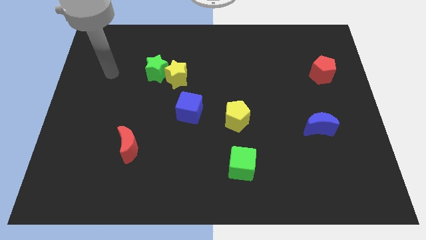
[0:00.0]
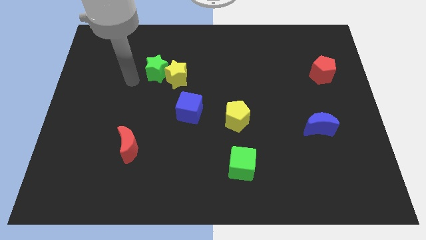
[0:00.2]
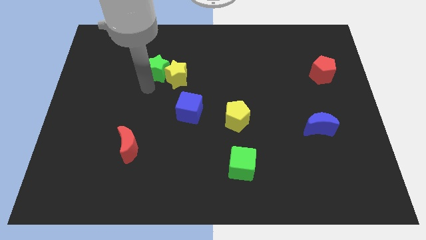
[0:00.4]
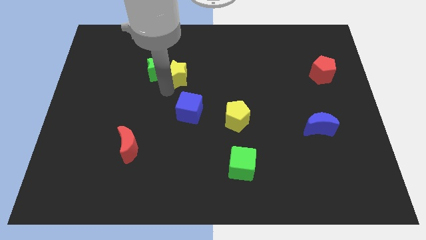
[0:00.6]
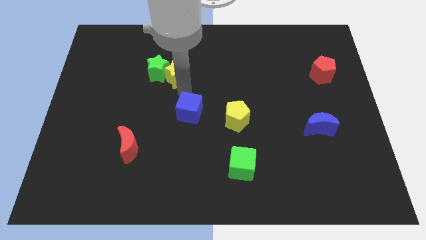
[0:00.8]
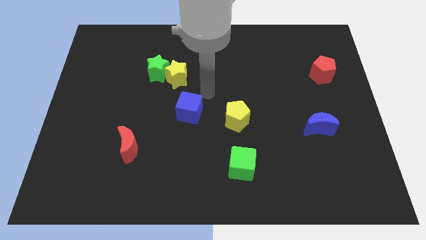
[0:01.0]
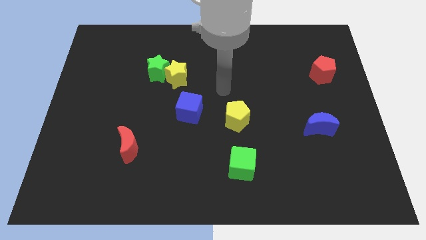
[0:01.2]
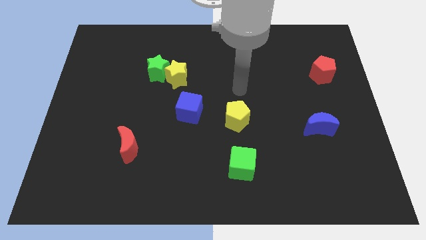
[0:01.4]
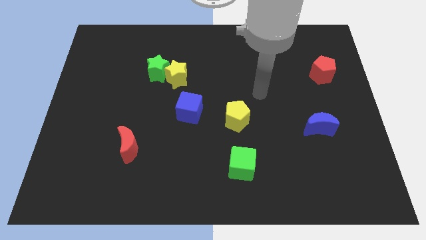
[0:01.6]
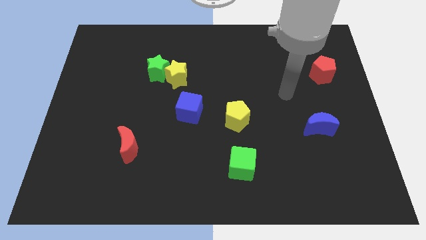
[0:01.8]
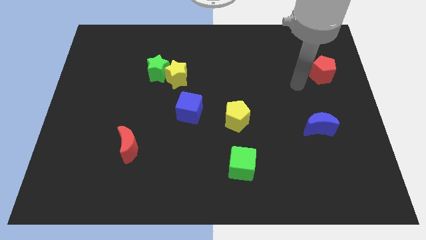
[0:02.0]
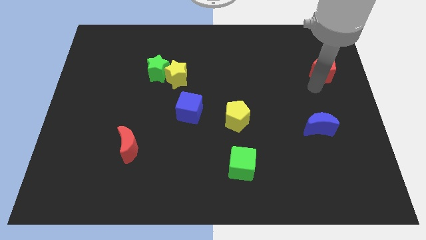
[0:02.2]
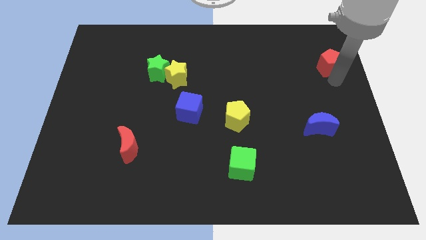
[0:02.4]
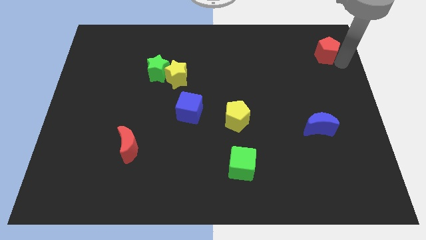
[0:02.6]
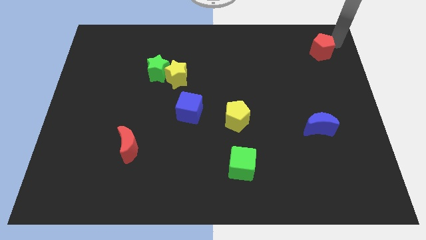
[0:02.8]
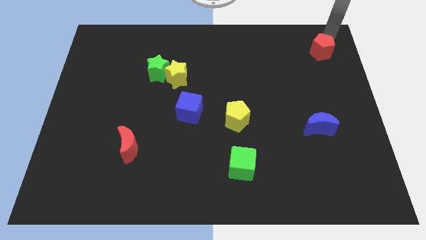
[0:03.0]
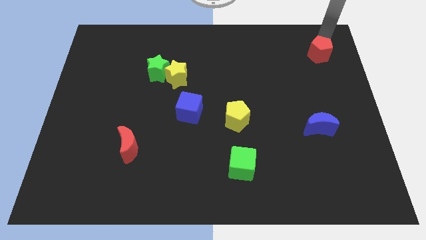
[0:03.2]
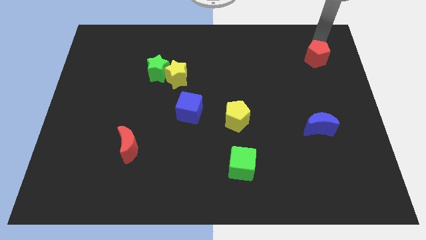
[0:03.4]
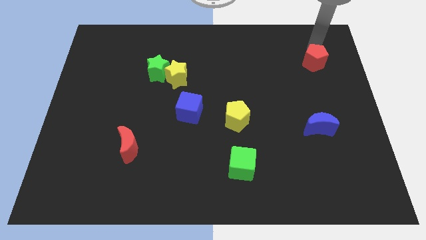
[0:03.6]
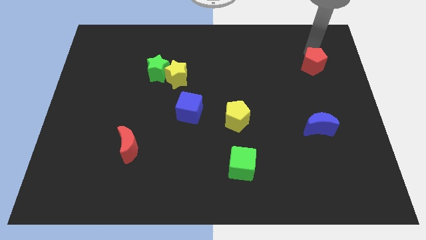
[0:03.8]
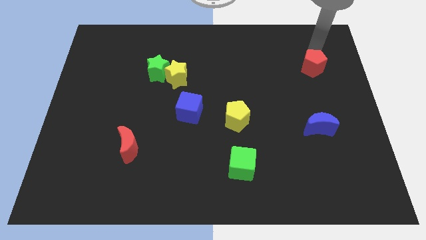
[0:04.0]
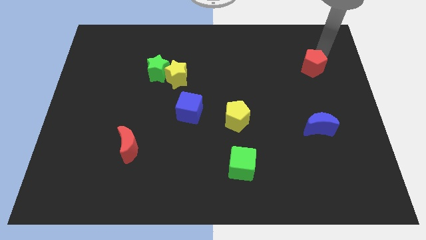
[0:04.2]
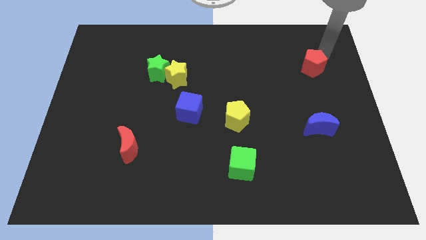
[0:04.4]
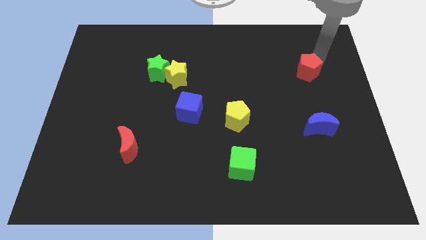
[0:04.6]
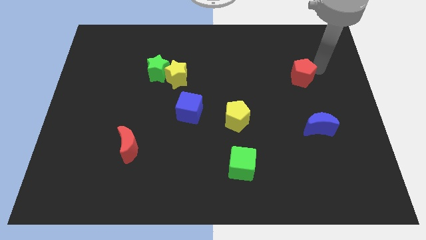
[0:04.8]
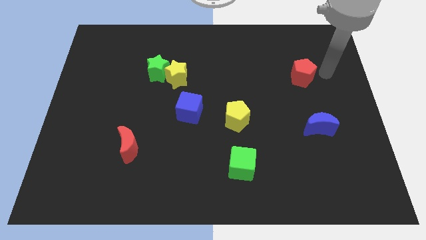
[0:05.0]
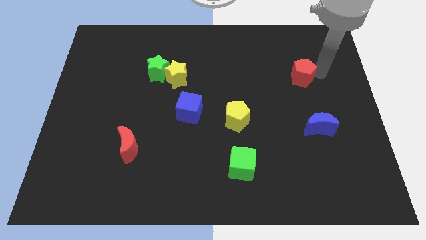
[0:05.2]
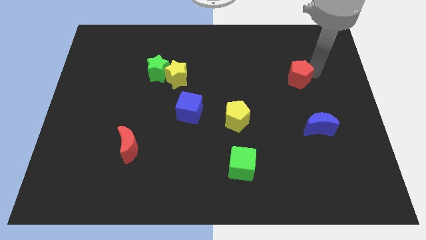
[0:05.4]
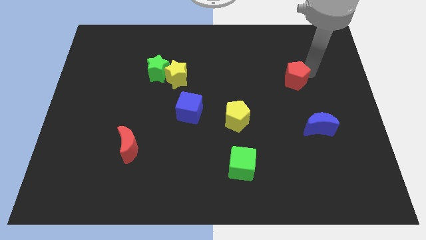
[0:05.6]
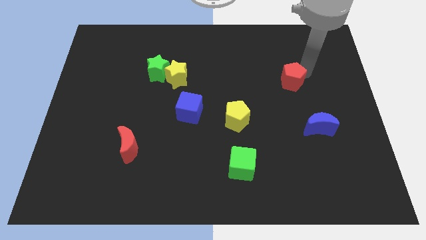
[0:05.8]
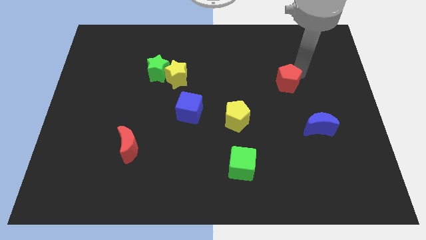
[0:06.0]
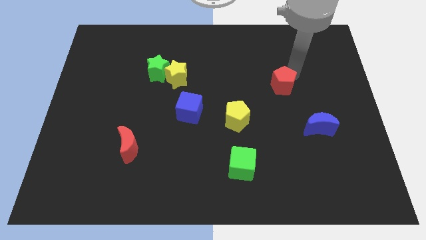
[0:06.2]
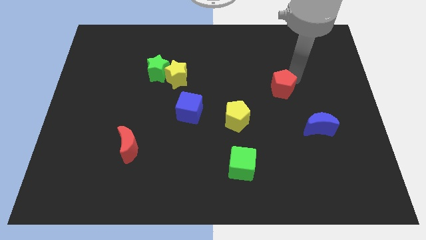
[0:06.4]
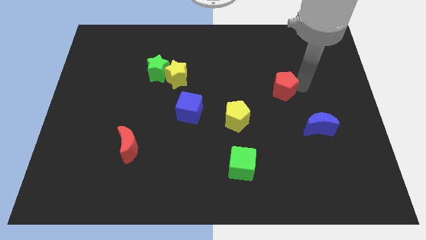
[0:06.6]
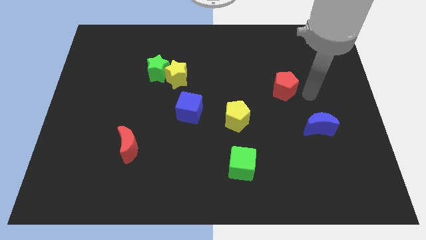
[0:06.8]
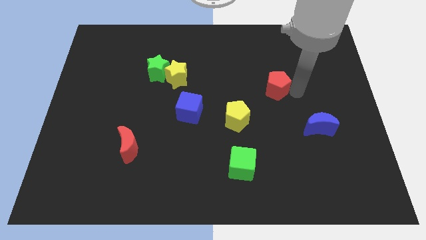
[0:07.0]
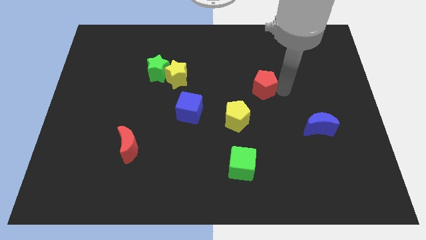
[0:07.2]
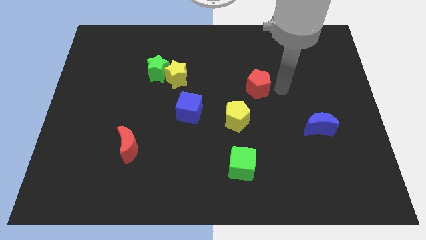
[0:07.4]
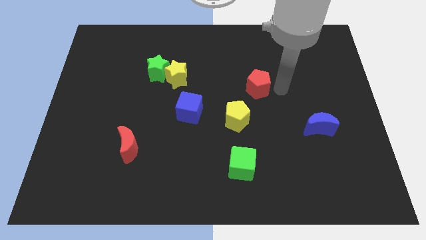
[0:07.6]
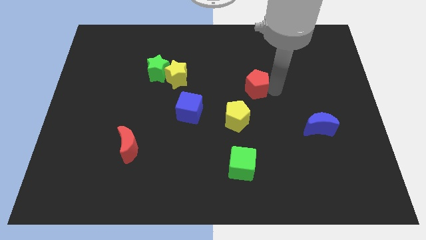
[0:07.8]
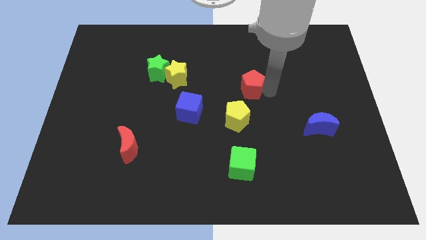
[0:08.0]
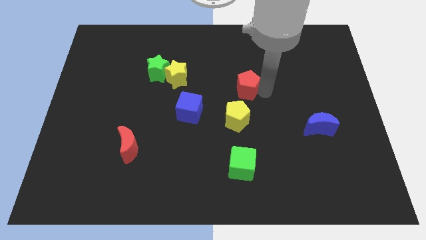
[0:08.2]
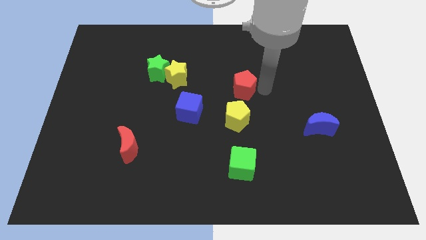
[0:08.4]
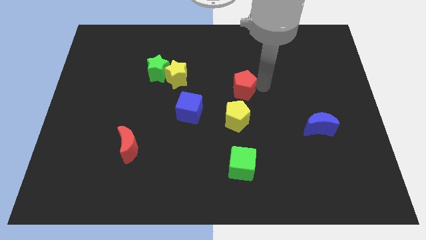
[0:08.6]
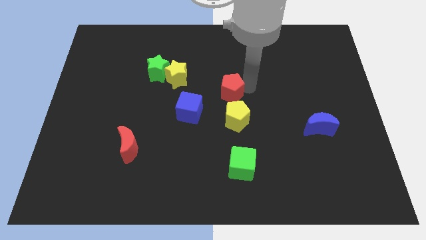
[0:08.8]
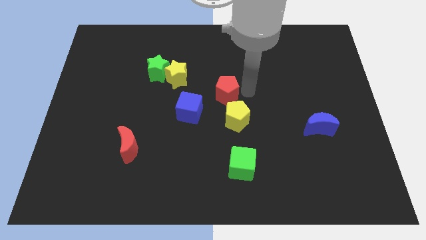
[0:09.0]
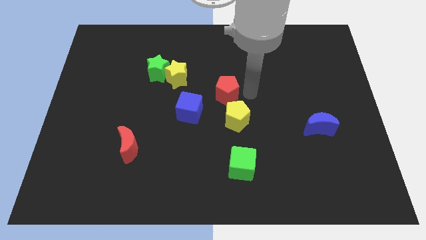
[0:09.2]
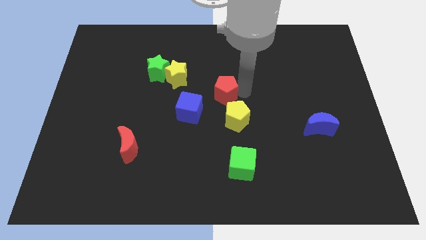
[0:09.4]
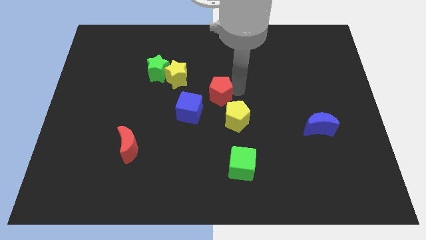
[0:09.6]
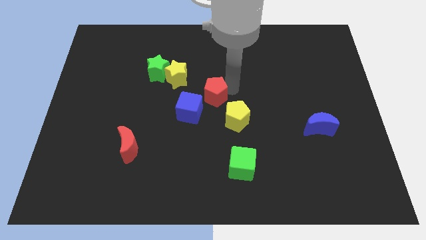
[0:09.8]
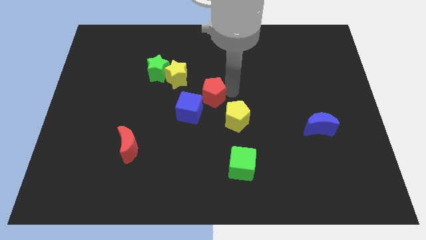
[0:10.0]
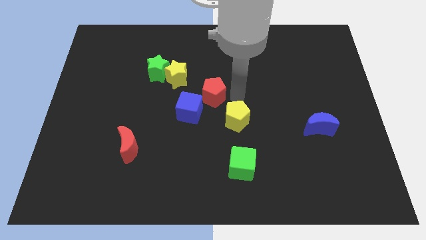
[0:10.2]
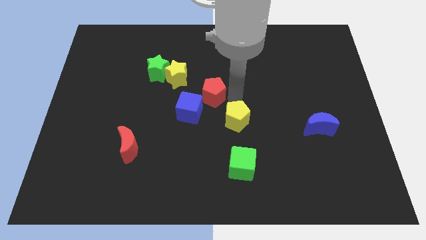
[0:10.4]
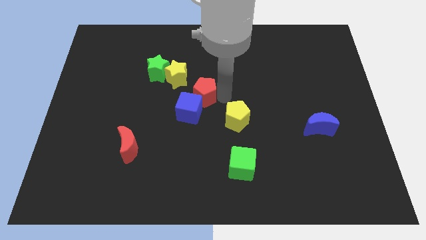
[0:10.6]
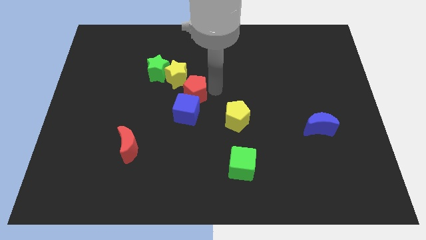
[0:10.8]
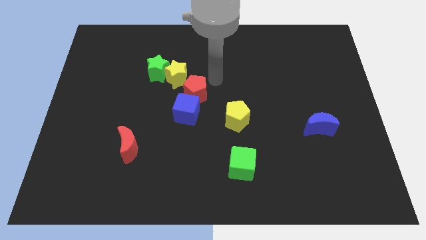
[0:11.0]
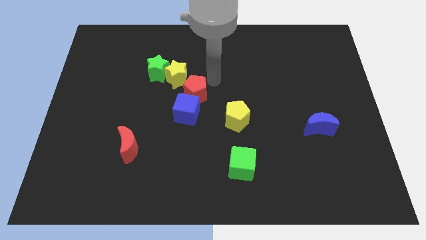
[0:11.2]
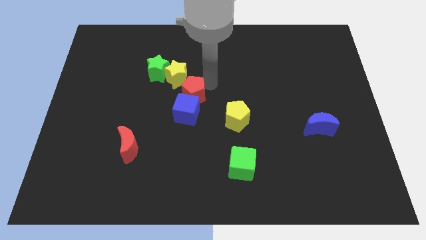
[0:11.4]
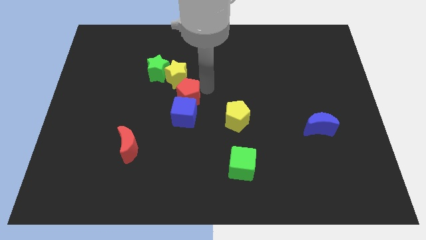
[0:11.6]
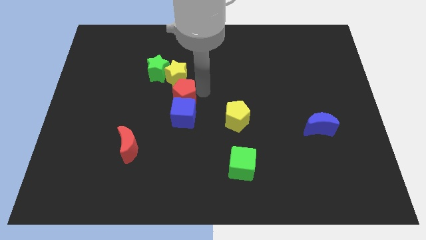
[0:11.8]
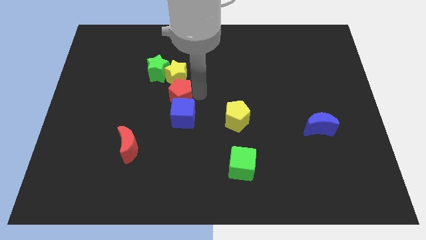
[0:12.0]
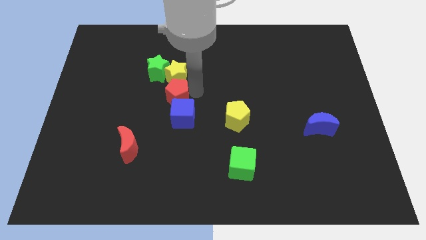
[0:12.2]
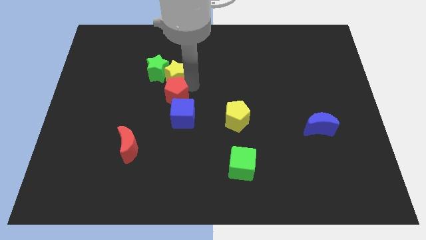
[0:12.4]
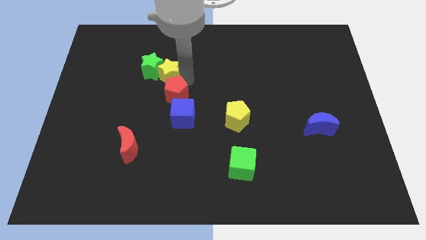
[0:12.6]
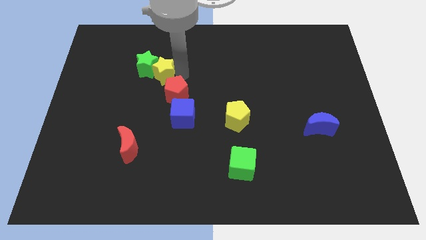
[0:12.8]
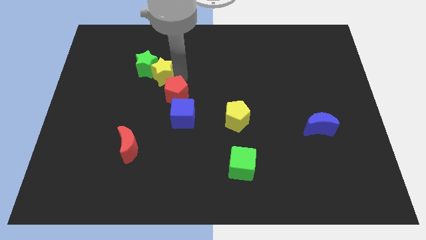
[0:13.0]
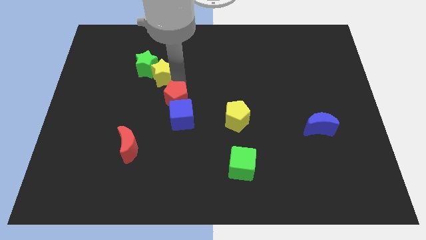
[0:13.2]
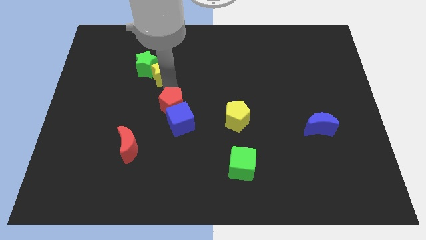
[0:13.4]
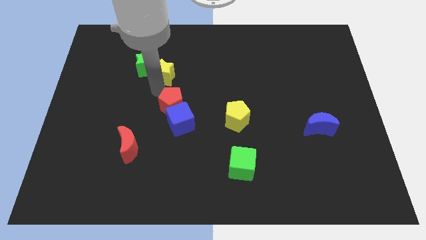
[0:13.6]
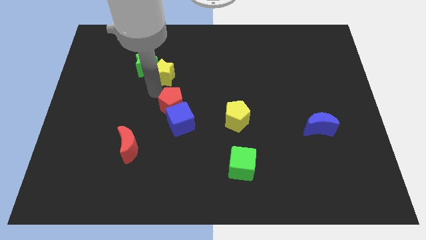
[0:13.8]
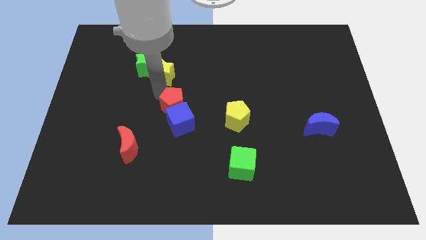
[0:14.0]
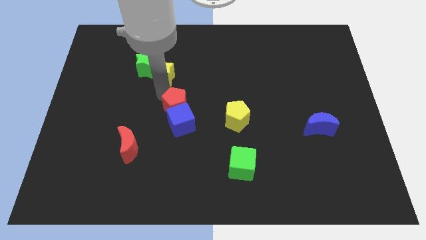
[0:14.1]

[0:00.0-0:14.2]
put the red pentagon to the left side of the yellow pentagon
